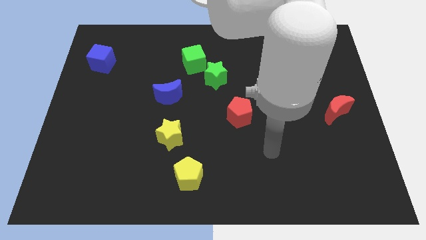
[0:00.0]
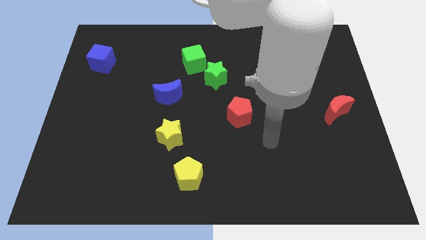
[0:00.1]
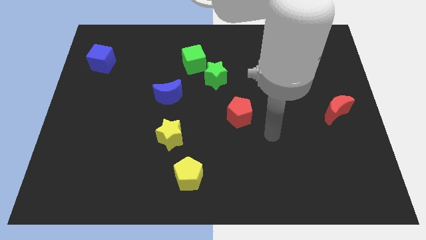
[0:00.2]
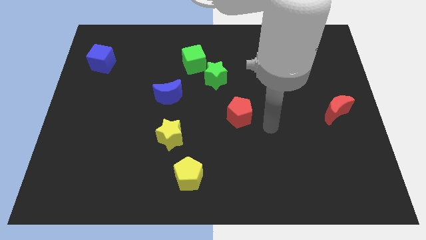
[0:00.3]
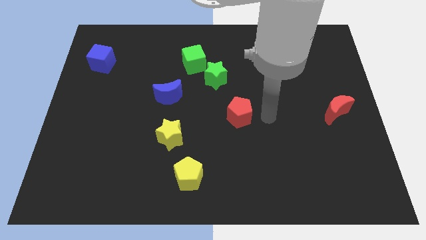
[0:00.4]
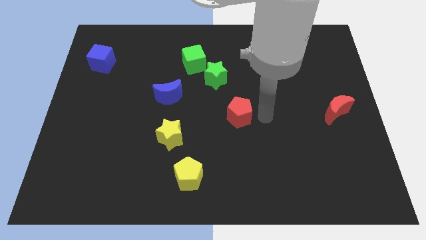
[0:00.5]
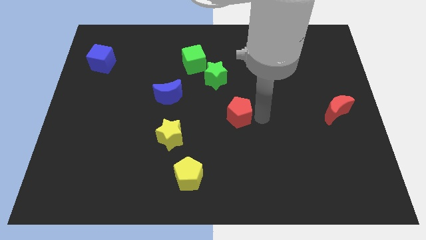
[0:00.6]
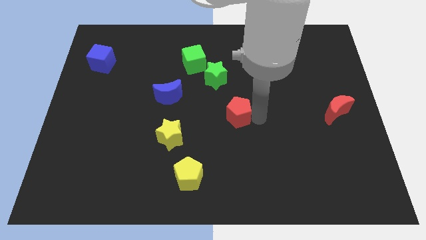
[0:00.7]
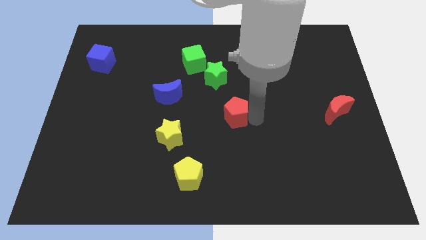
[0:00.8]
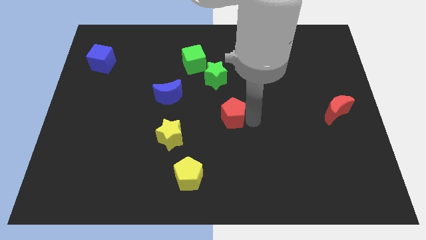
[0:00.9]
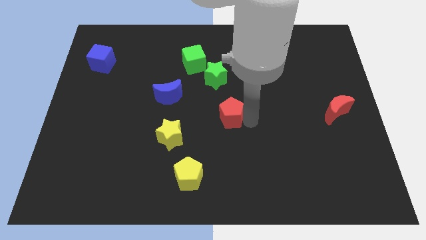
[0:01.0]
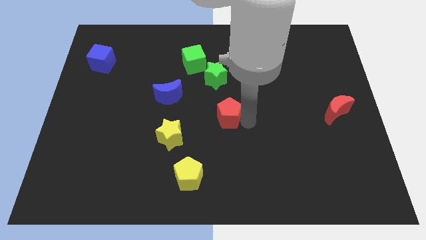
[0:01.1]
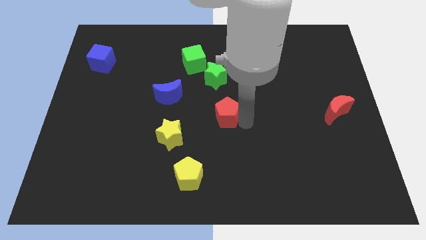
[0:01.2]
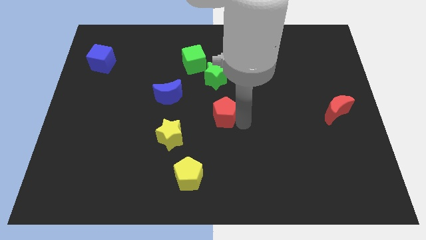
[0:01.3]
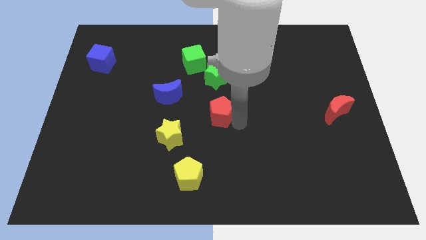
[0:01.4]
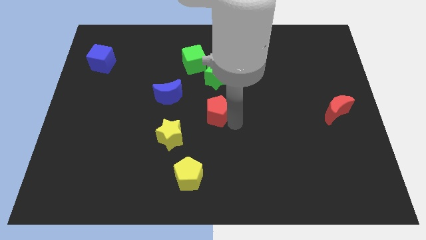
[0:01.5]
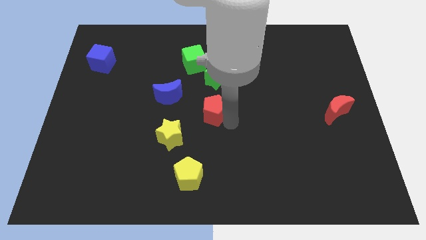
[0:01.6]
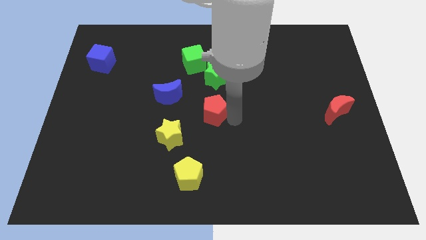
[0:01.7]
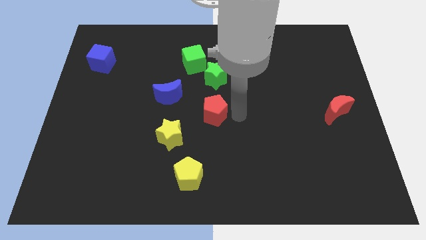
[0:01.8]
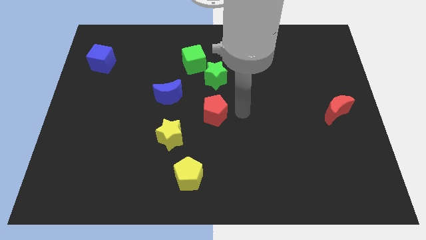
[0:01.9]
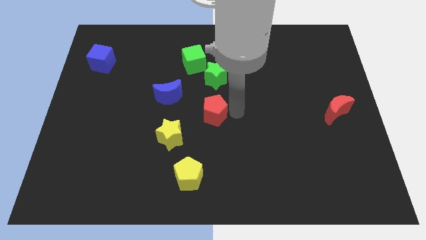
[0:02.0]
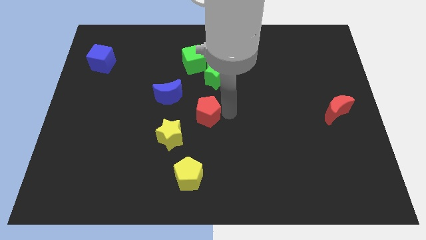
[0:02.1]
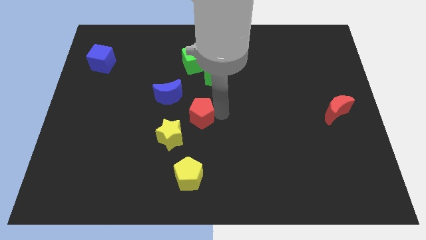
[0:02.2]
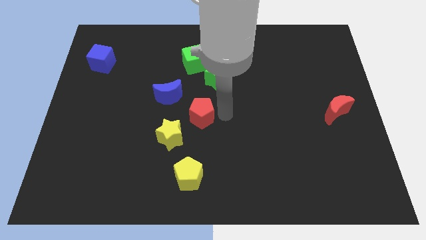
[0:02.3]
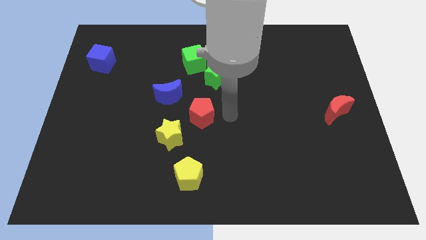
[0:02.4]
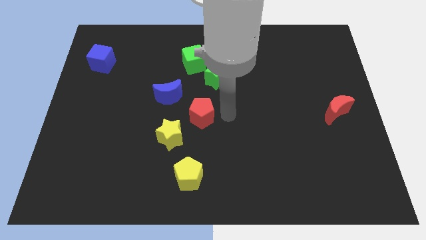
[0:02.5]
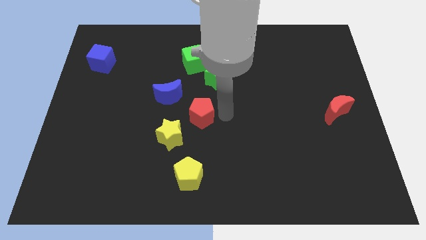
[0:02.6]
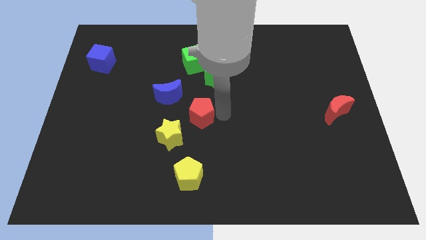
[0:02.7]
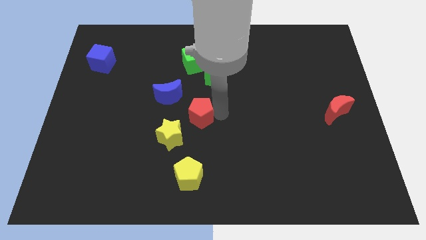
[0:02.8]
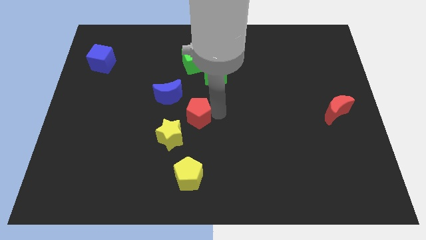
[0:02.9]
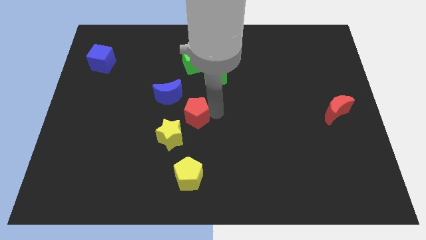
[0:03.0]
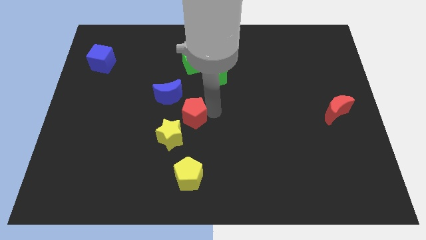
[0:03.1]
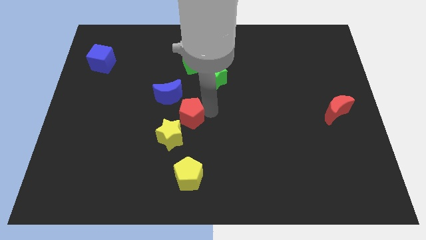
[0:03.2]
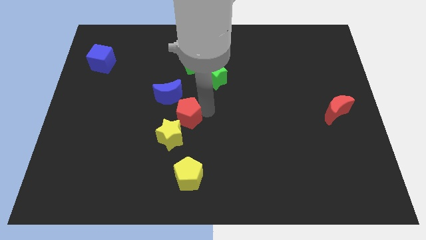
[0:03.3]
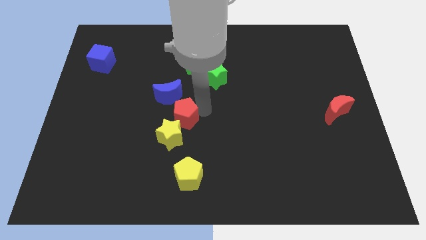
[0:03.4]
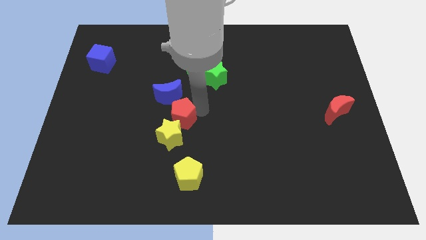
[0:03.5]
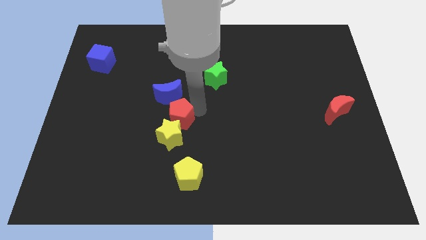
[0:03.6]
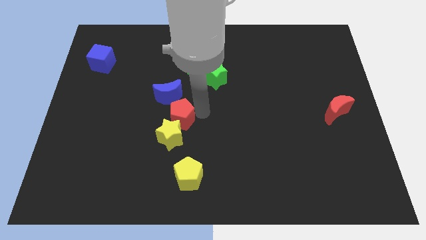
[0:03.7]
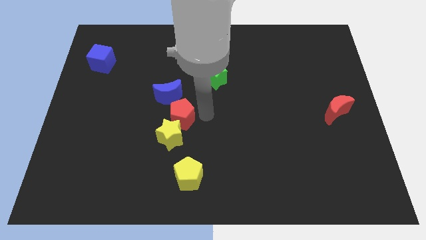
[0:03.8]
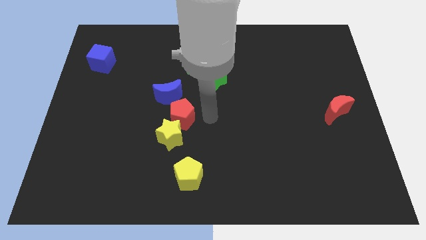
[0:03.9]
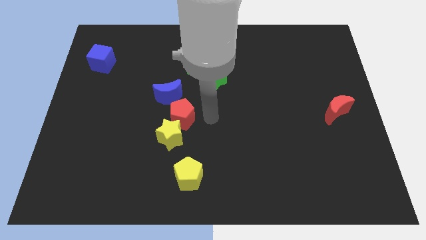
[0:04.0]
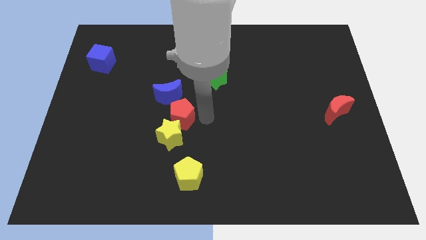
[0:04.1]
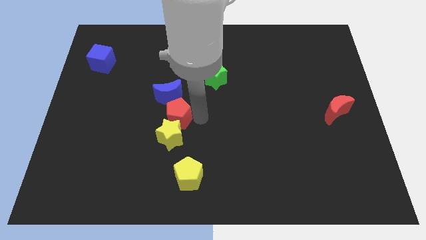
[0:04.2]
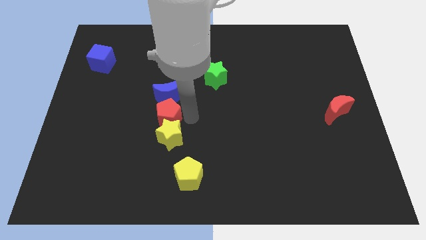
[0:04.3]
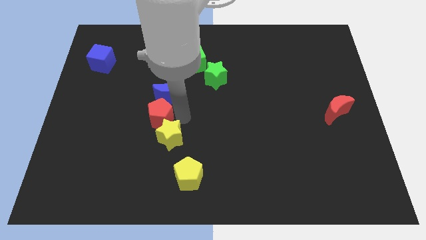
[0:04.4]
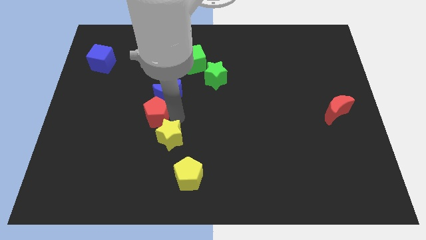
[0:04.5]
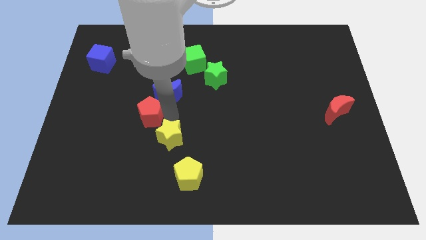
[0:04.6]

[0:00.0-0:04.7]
push the red pentagon to the left

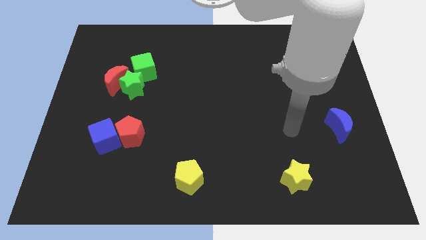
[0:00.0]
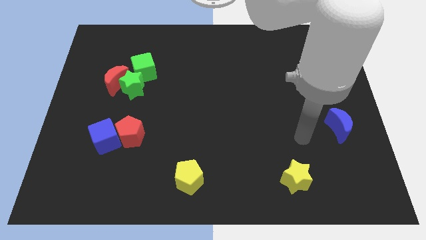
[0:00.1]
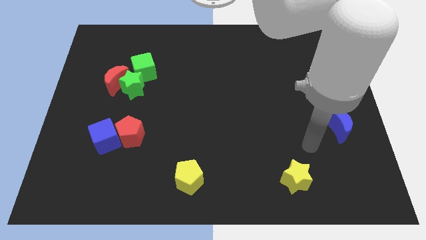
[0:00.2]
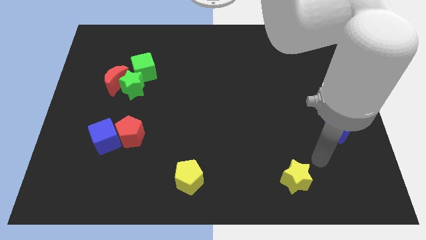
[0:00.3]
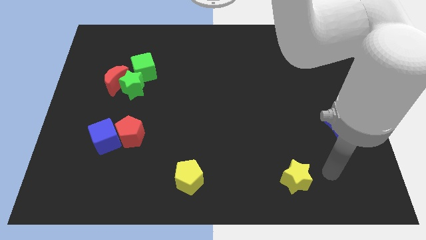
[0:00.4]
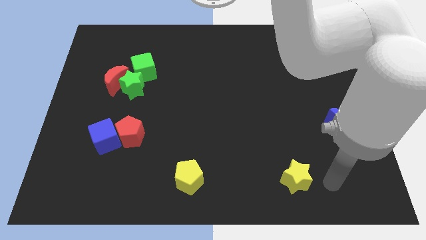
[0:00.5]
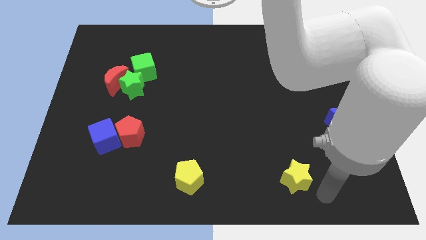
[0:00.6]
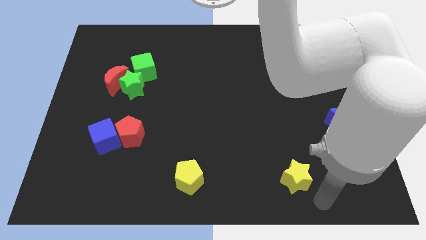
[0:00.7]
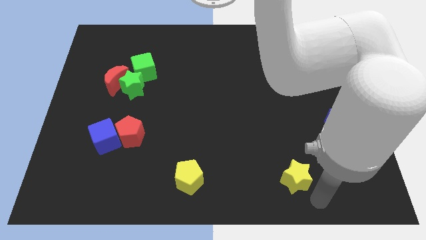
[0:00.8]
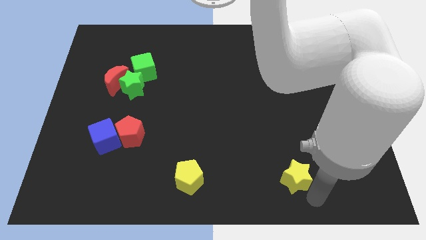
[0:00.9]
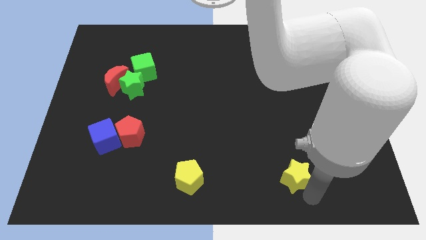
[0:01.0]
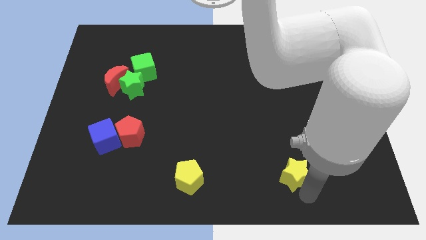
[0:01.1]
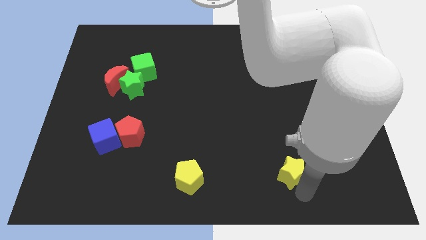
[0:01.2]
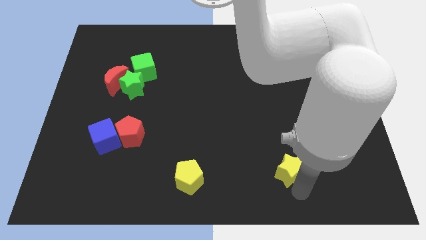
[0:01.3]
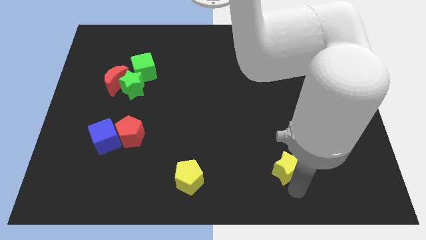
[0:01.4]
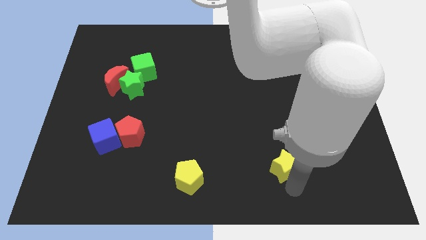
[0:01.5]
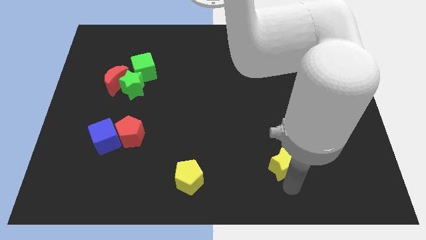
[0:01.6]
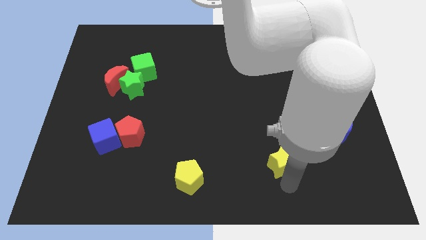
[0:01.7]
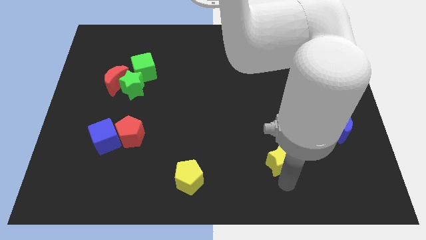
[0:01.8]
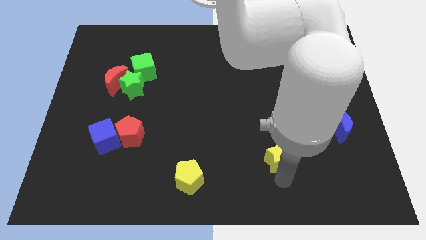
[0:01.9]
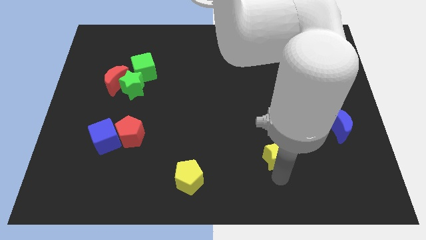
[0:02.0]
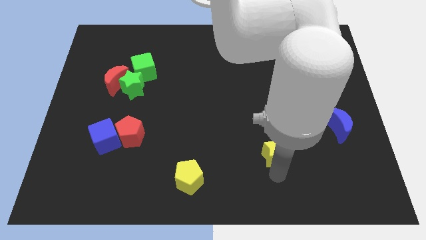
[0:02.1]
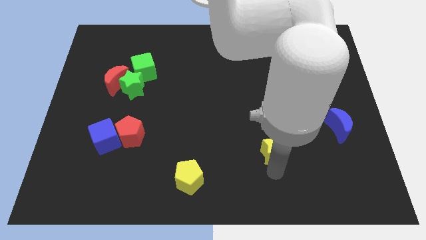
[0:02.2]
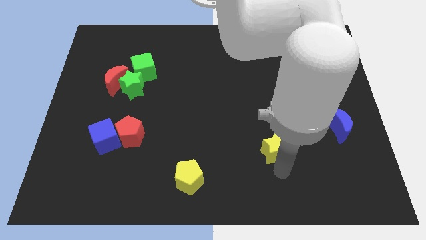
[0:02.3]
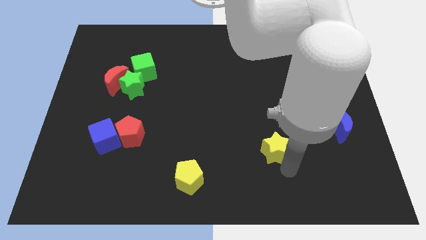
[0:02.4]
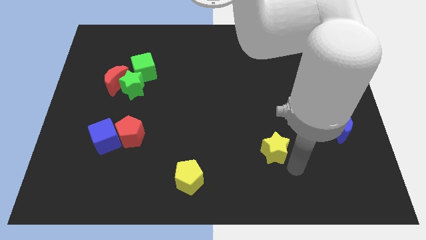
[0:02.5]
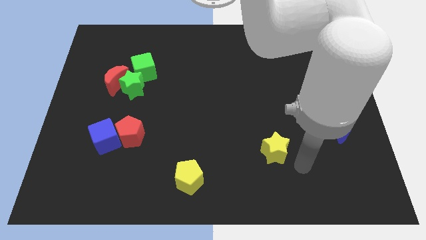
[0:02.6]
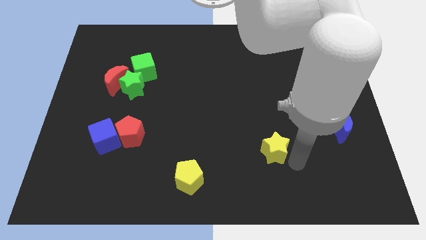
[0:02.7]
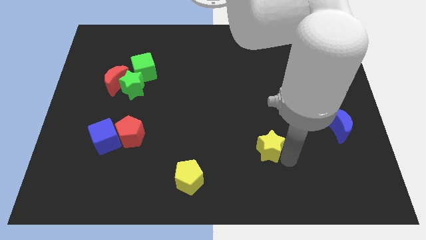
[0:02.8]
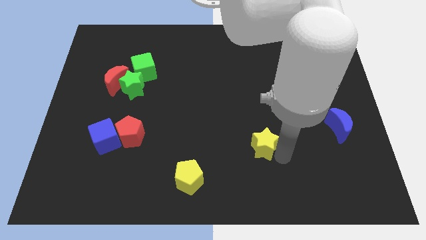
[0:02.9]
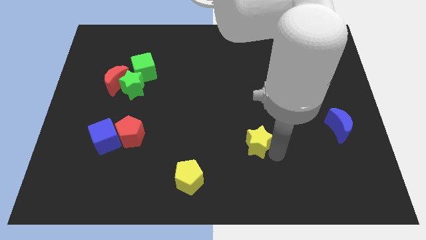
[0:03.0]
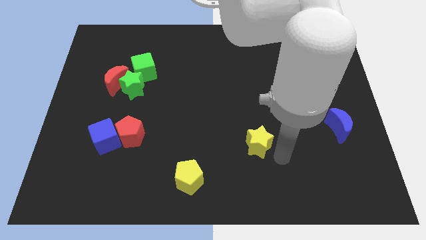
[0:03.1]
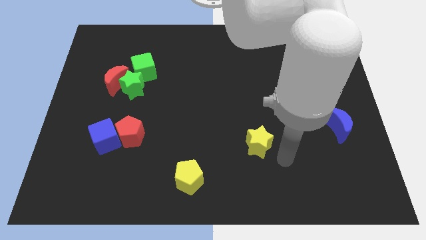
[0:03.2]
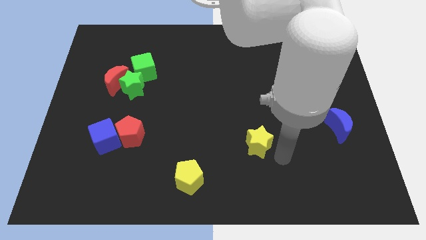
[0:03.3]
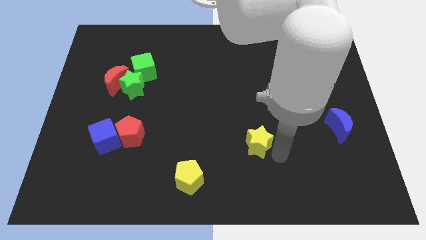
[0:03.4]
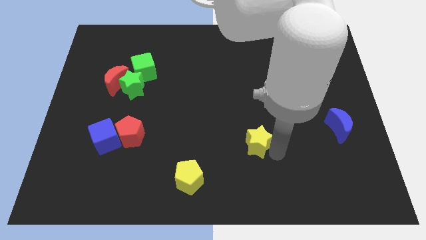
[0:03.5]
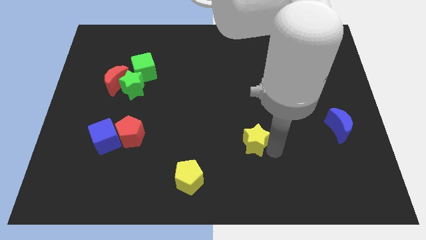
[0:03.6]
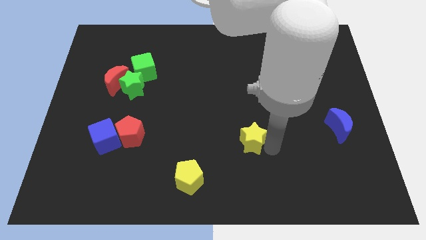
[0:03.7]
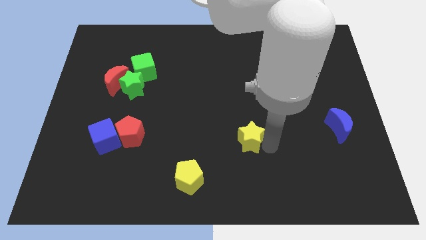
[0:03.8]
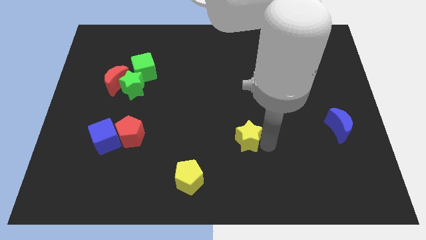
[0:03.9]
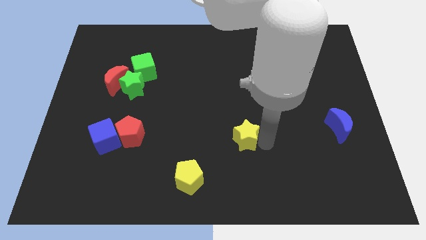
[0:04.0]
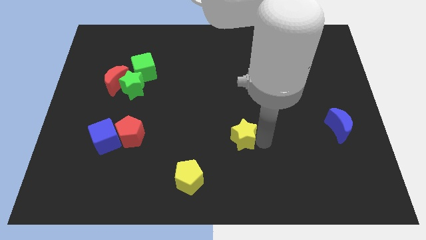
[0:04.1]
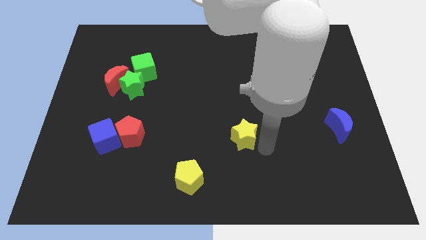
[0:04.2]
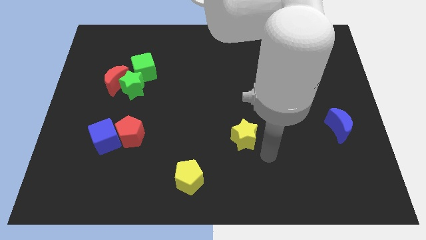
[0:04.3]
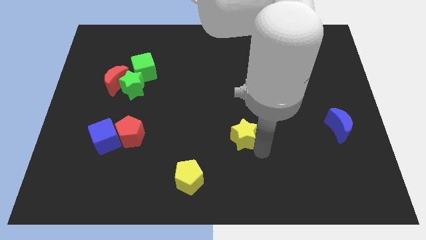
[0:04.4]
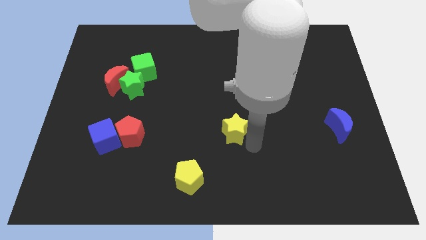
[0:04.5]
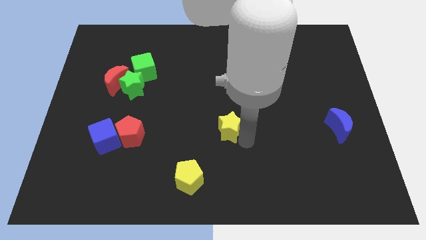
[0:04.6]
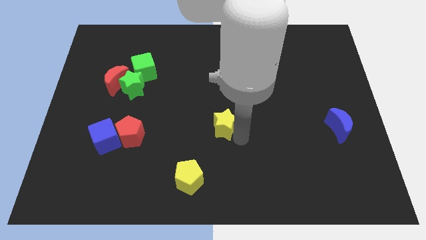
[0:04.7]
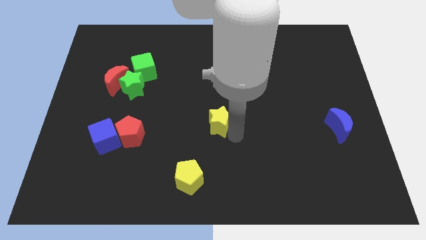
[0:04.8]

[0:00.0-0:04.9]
push the yellow star up and left
